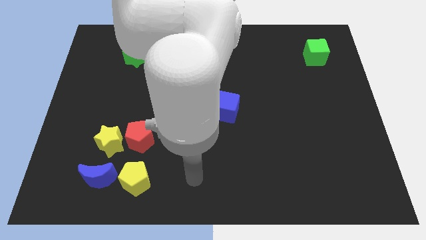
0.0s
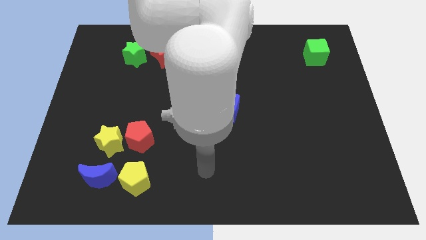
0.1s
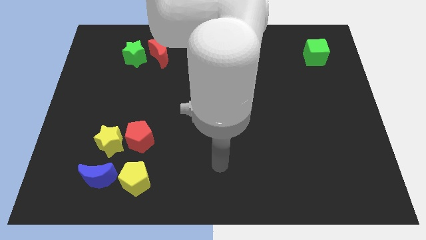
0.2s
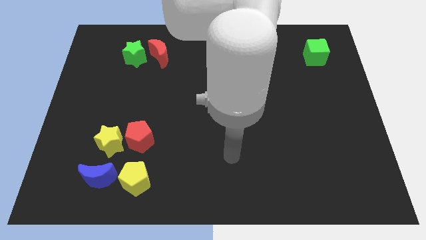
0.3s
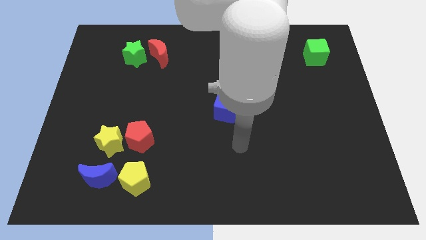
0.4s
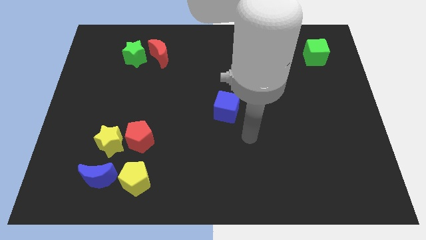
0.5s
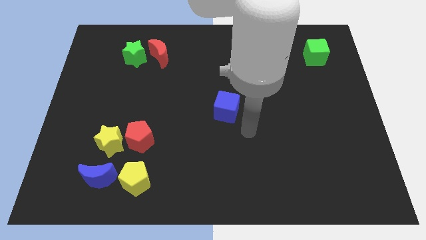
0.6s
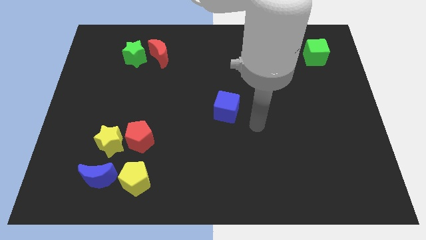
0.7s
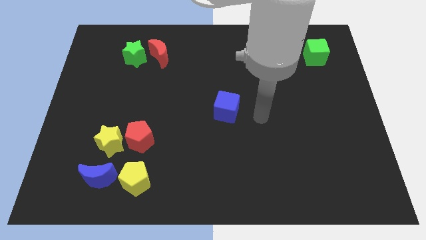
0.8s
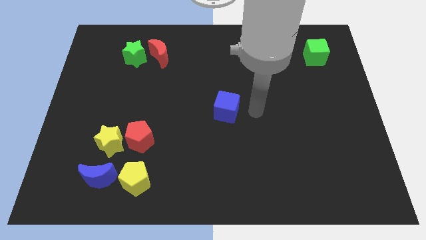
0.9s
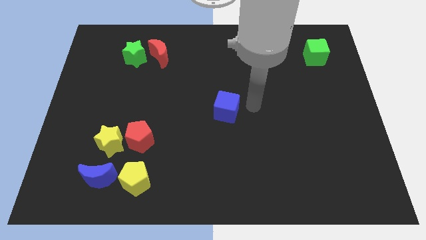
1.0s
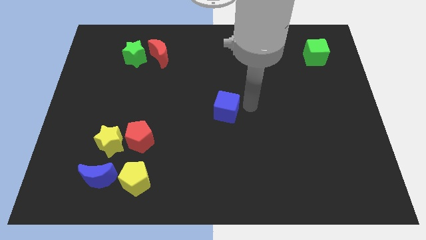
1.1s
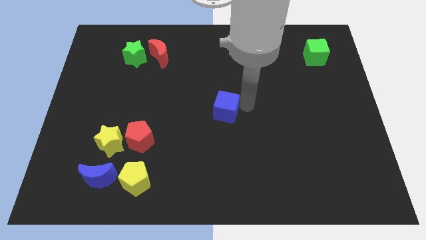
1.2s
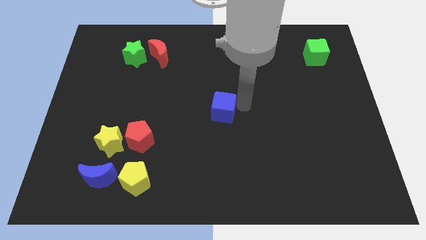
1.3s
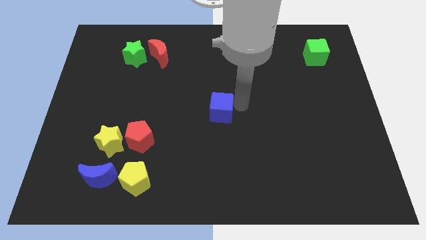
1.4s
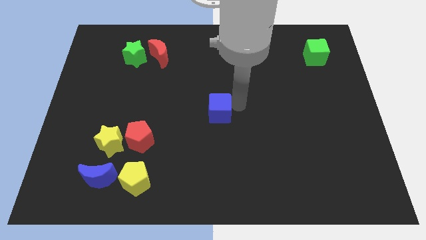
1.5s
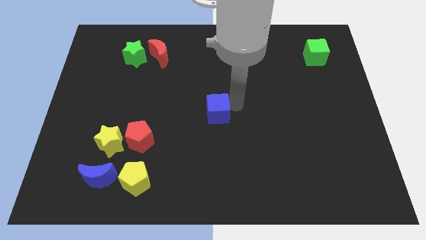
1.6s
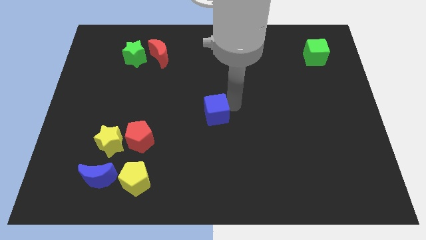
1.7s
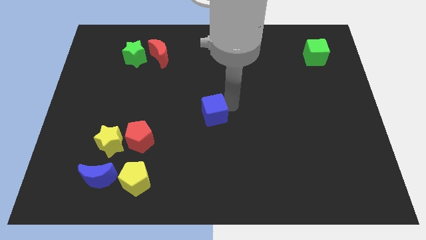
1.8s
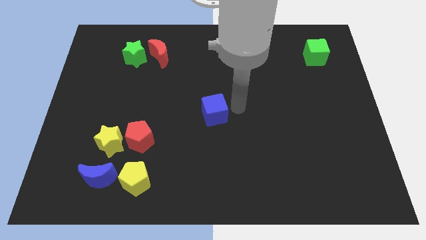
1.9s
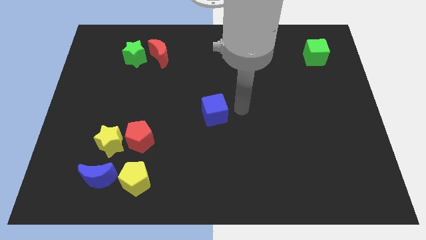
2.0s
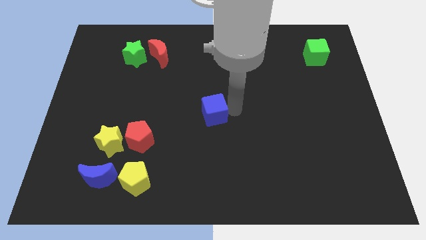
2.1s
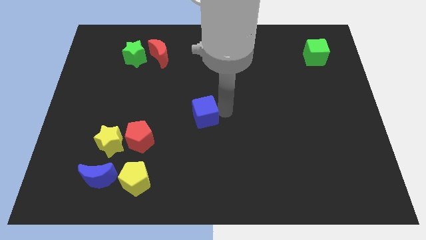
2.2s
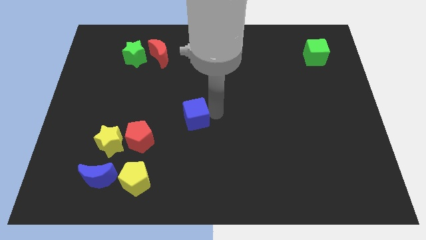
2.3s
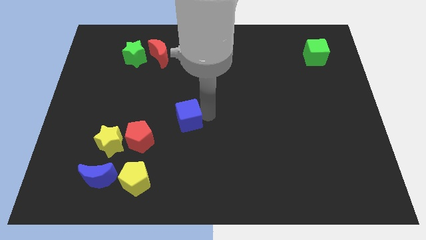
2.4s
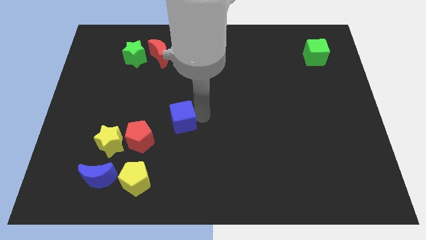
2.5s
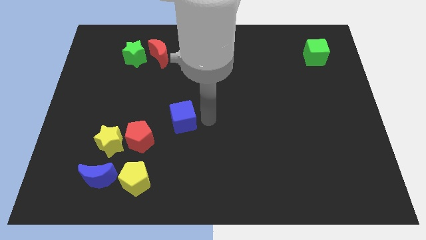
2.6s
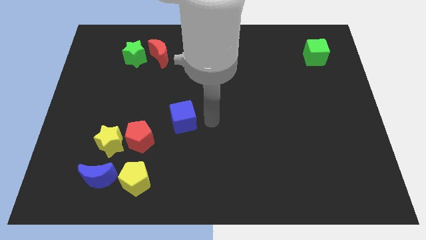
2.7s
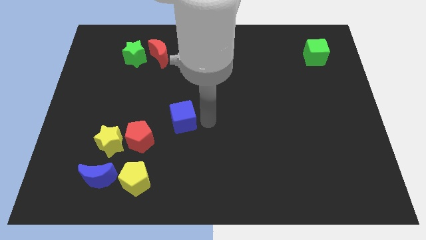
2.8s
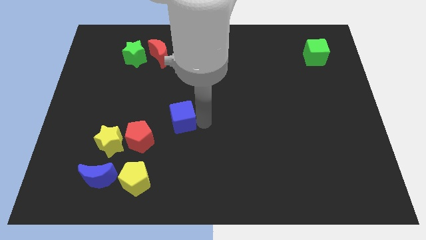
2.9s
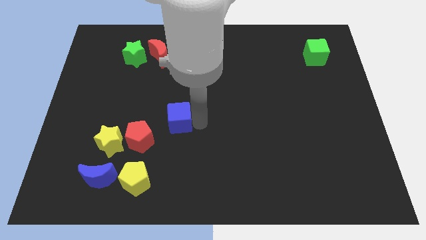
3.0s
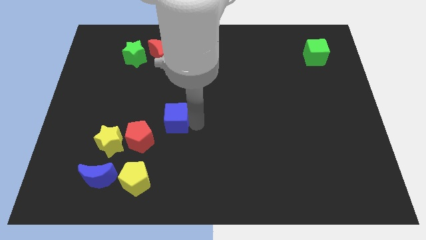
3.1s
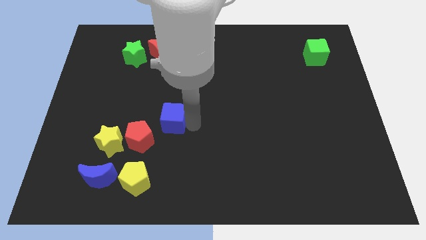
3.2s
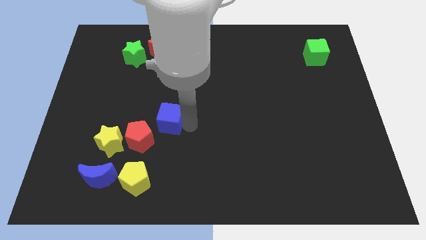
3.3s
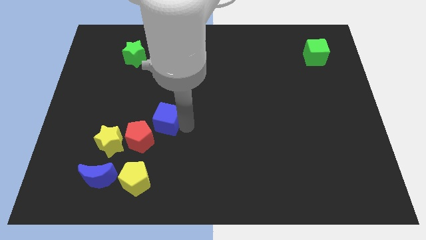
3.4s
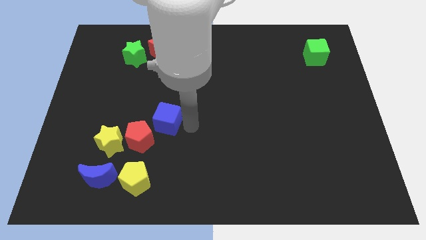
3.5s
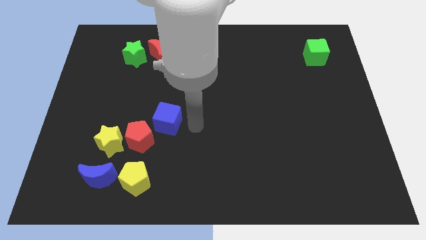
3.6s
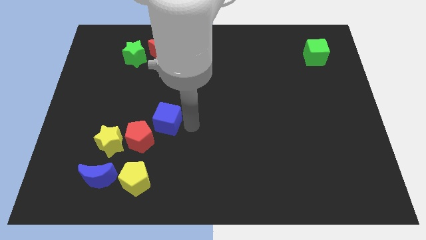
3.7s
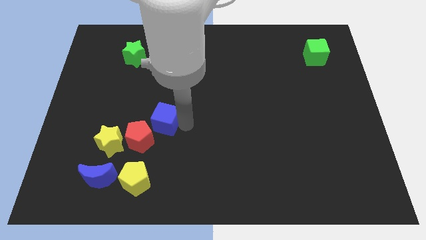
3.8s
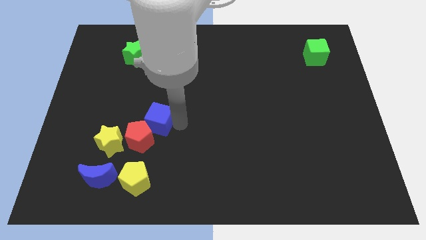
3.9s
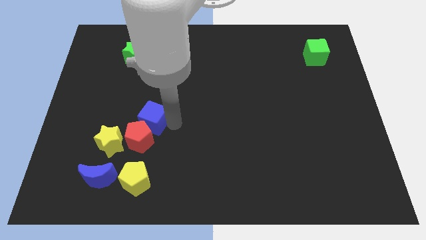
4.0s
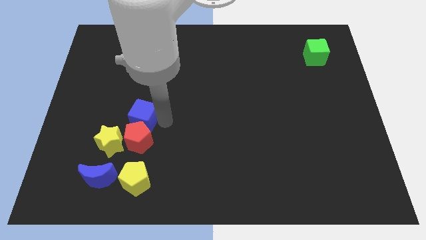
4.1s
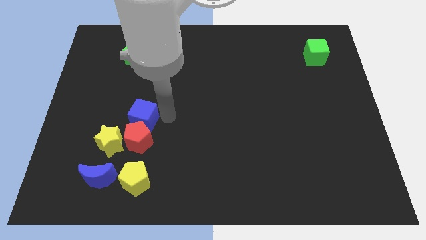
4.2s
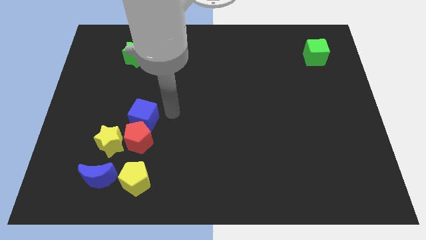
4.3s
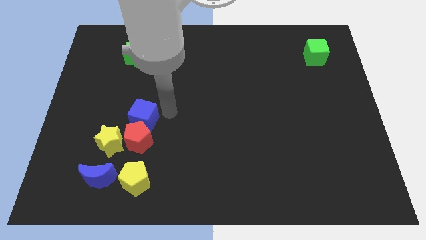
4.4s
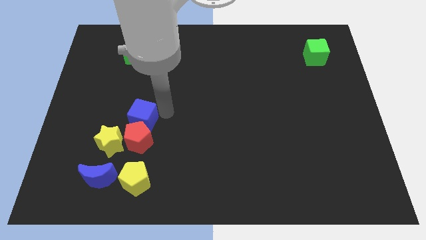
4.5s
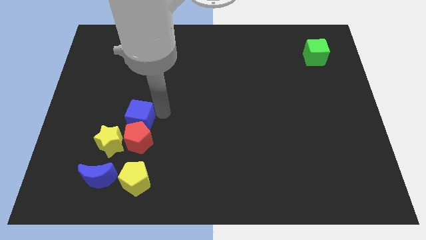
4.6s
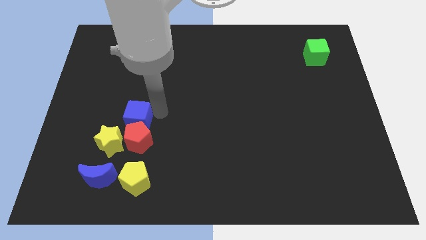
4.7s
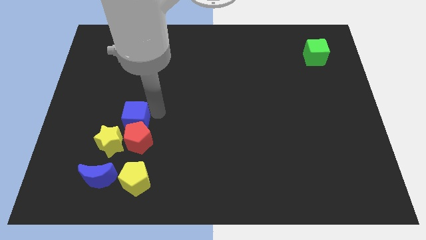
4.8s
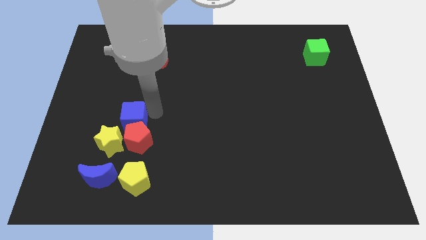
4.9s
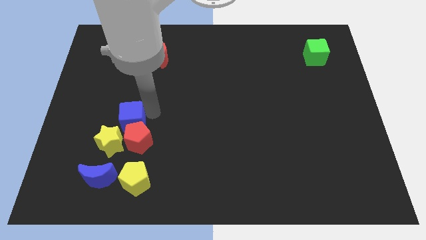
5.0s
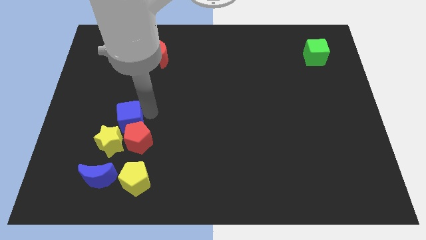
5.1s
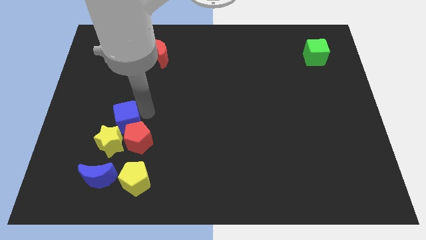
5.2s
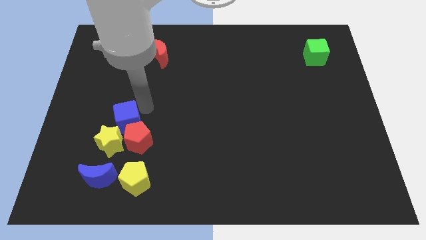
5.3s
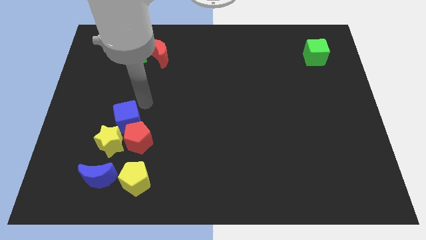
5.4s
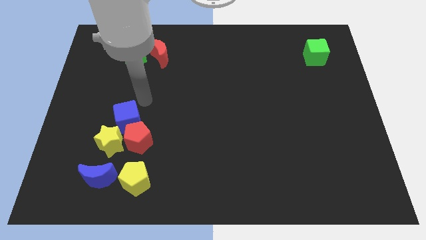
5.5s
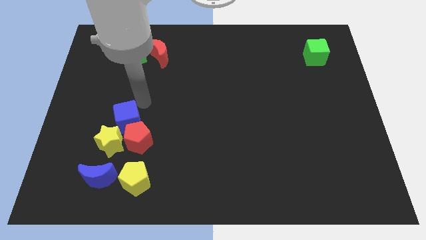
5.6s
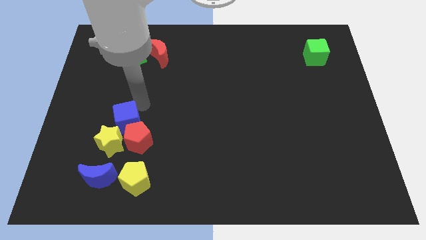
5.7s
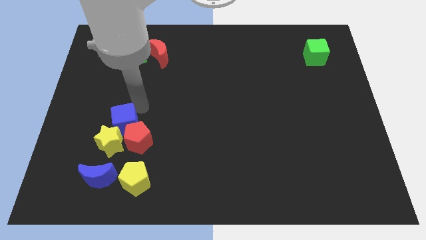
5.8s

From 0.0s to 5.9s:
move the blue cube next to the yellow star

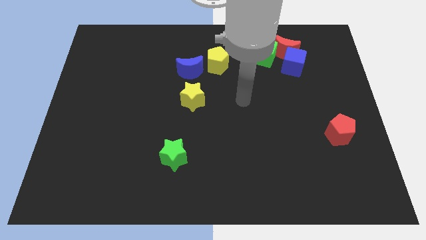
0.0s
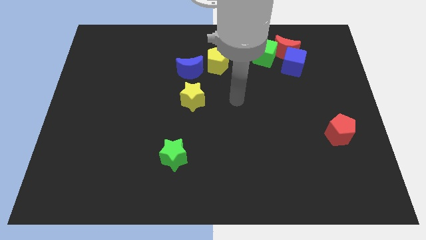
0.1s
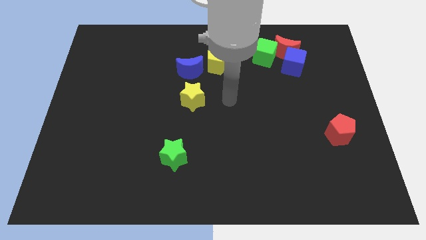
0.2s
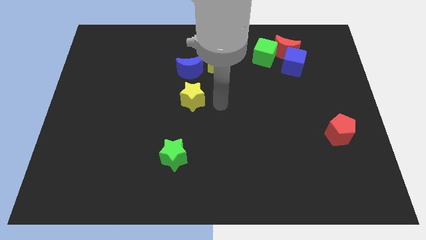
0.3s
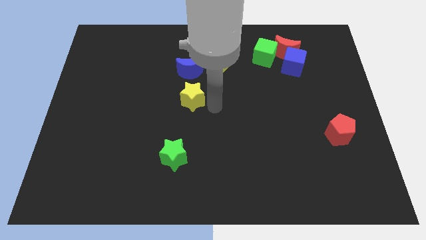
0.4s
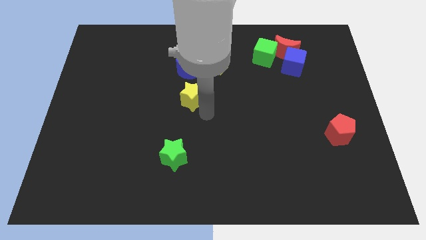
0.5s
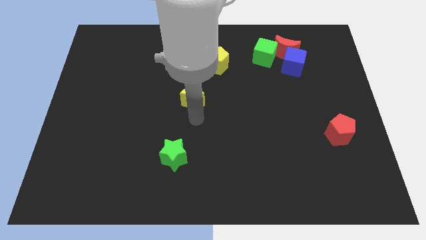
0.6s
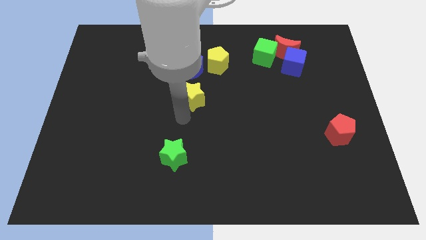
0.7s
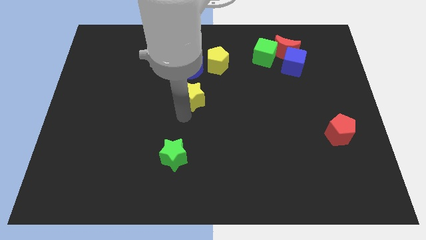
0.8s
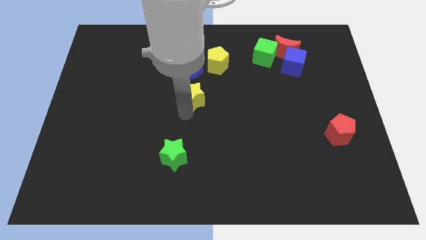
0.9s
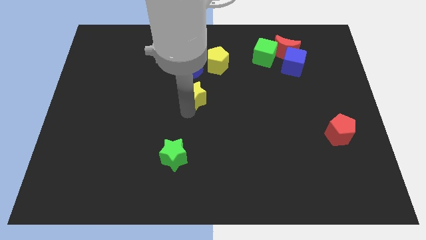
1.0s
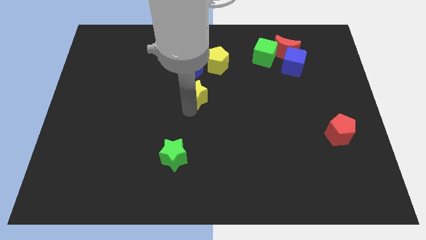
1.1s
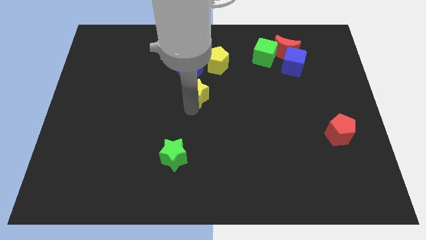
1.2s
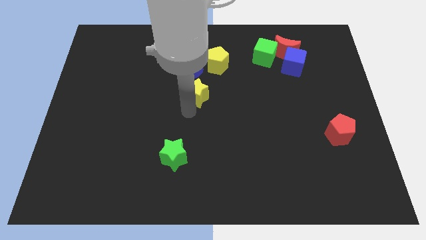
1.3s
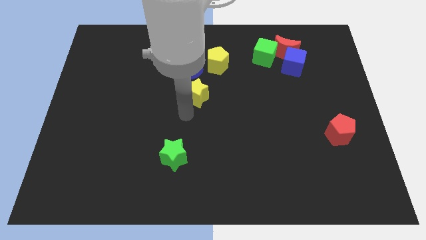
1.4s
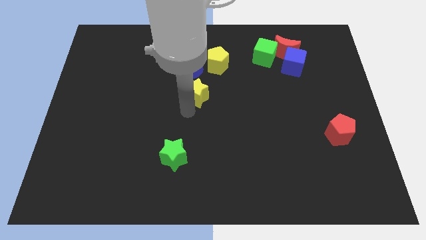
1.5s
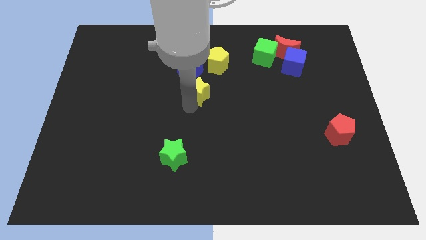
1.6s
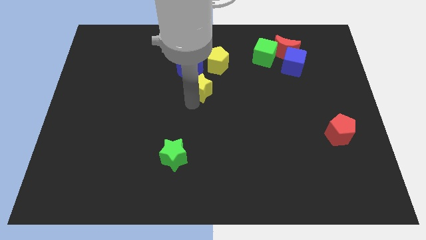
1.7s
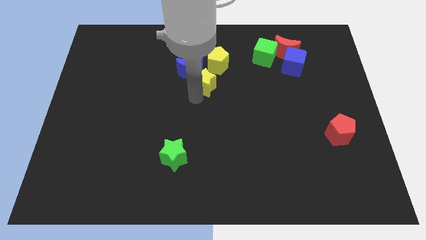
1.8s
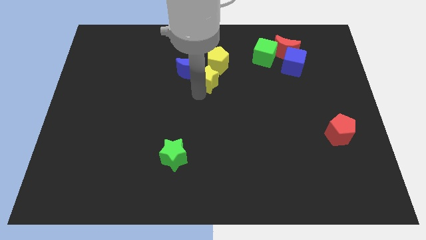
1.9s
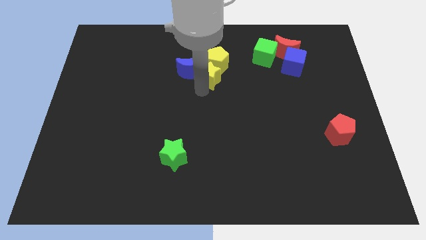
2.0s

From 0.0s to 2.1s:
move the yellow star close to the yellow pentagon
